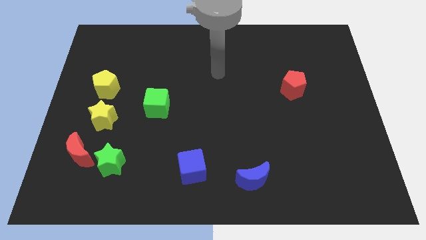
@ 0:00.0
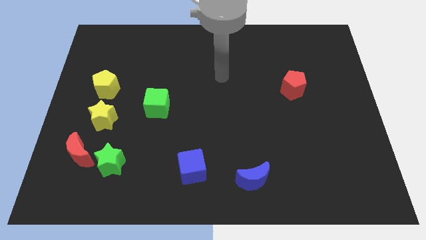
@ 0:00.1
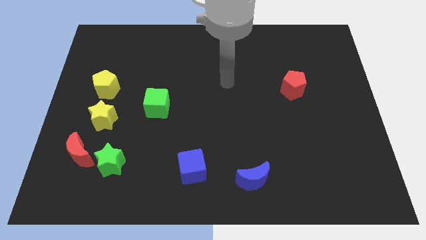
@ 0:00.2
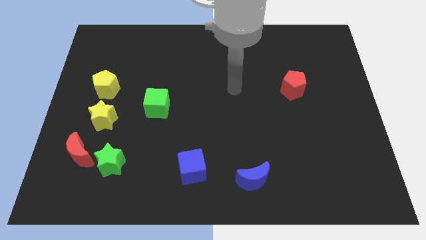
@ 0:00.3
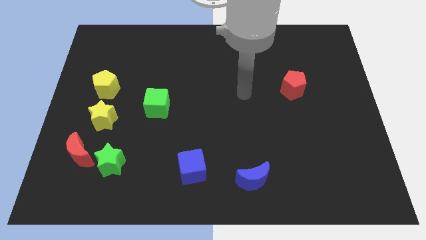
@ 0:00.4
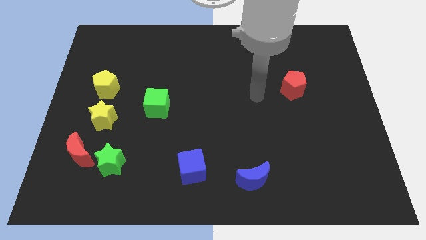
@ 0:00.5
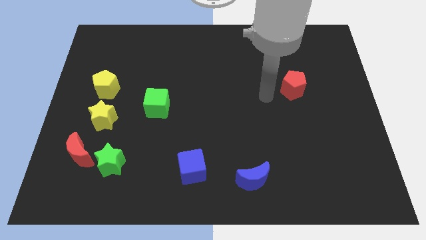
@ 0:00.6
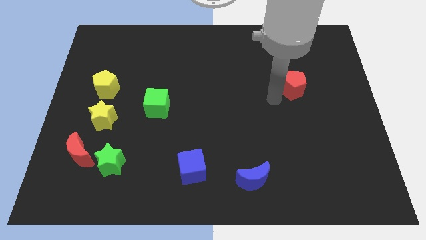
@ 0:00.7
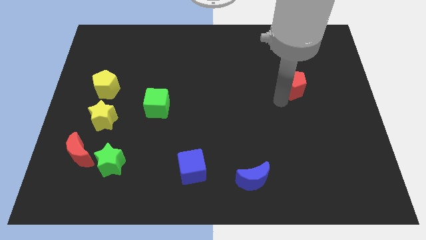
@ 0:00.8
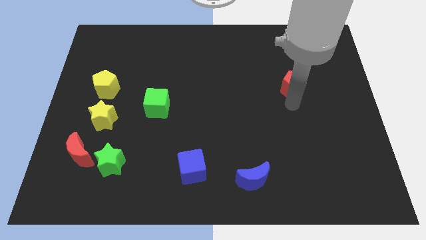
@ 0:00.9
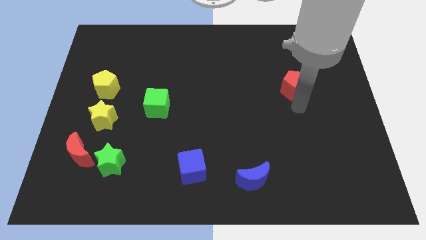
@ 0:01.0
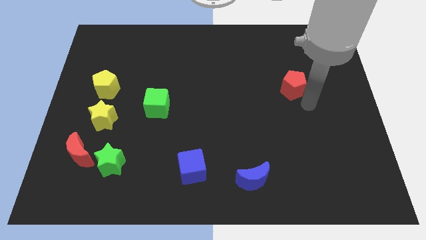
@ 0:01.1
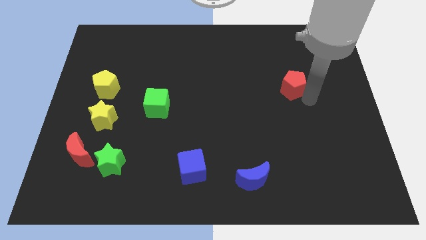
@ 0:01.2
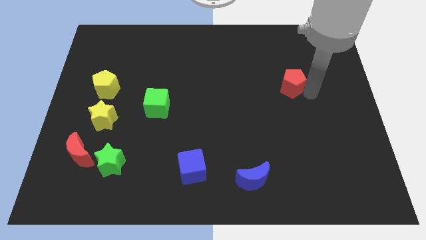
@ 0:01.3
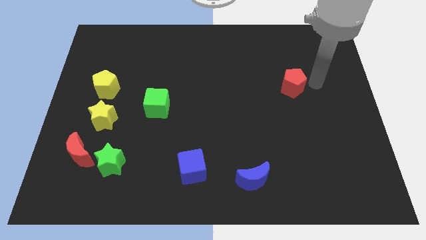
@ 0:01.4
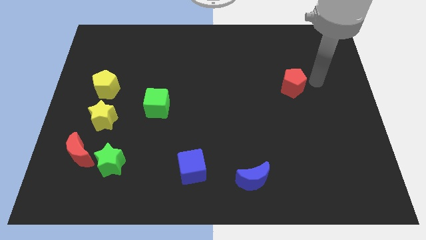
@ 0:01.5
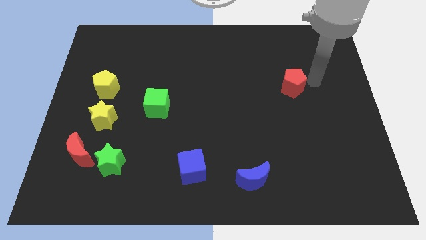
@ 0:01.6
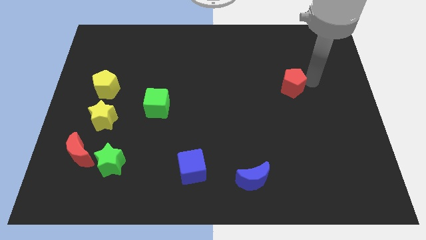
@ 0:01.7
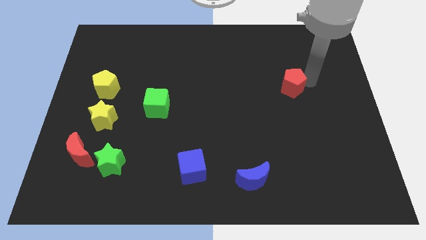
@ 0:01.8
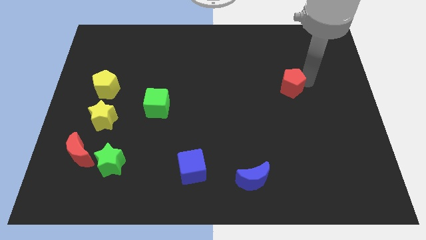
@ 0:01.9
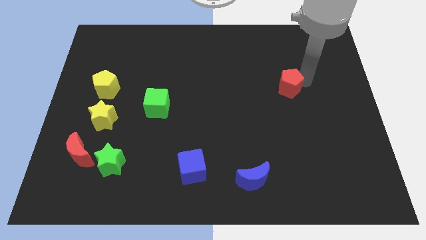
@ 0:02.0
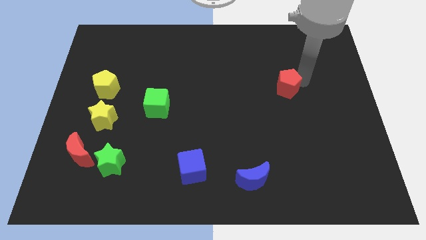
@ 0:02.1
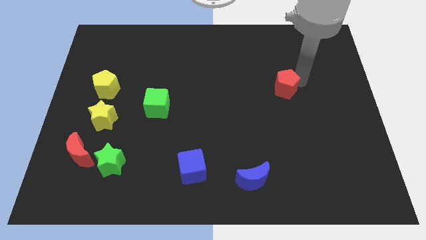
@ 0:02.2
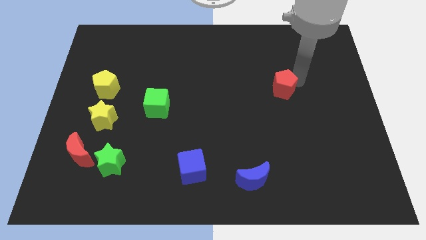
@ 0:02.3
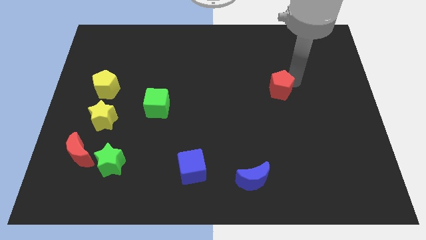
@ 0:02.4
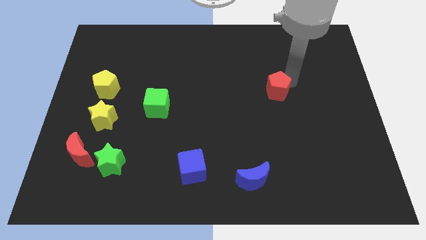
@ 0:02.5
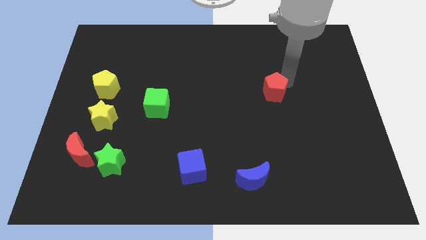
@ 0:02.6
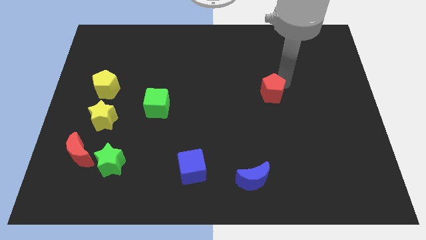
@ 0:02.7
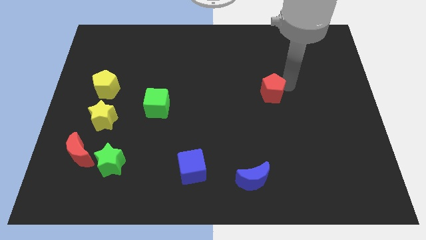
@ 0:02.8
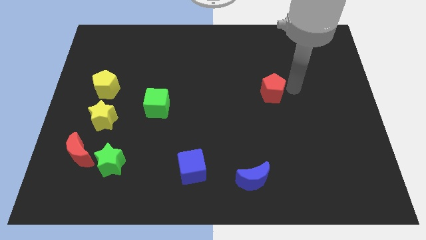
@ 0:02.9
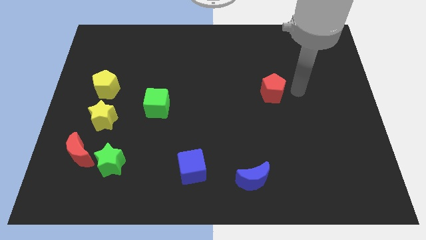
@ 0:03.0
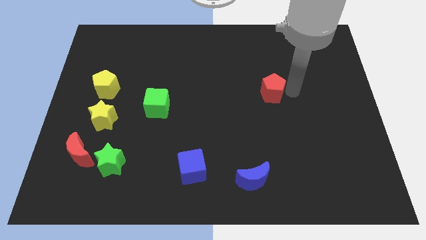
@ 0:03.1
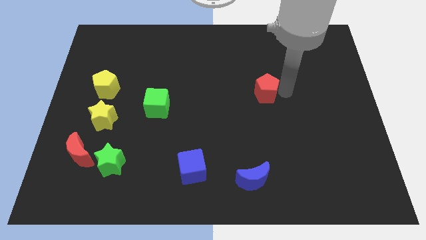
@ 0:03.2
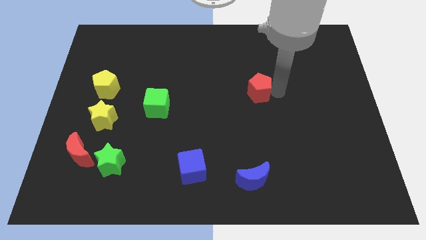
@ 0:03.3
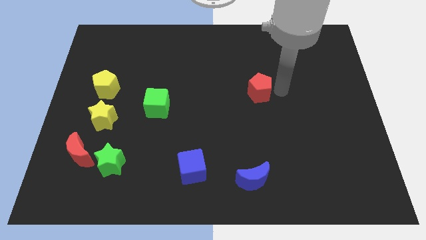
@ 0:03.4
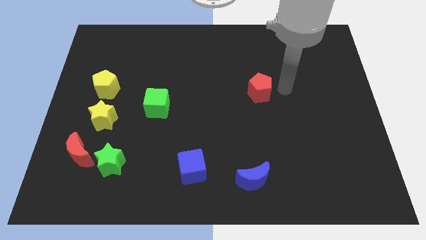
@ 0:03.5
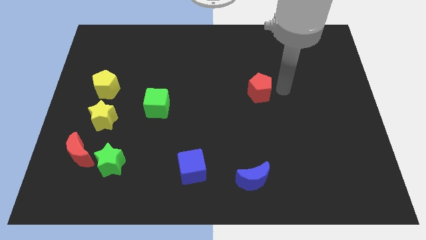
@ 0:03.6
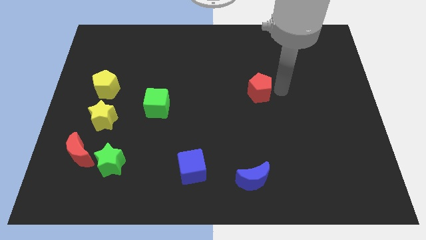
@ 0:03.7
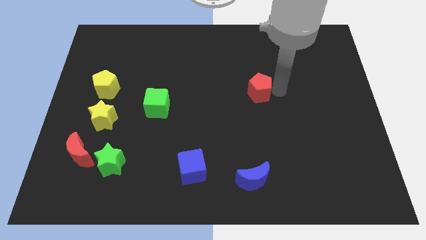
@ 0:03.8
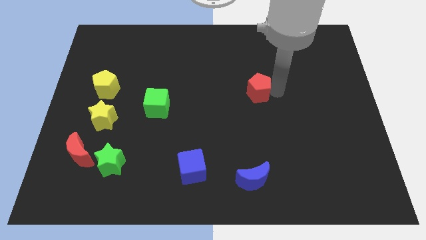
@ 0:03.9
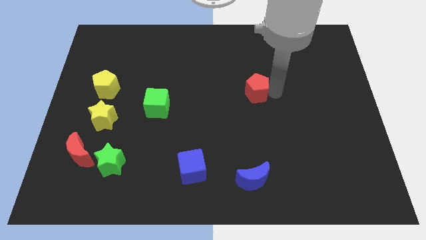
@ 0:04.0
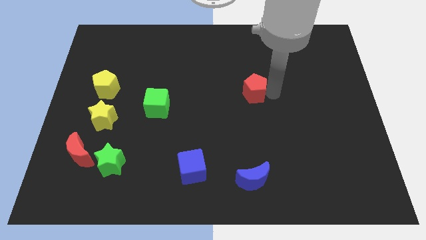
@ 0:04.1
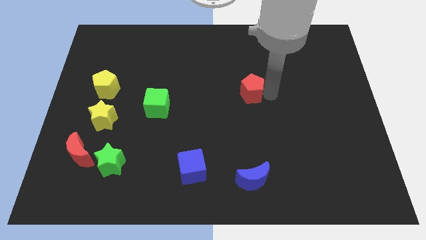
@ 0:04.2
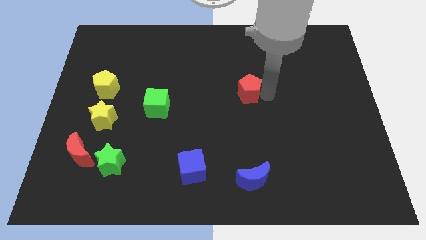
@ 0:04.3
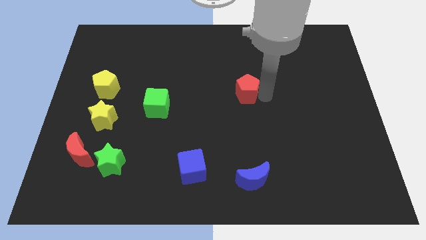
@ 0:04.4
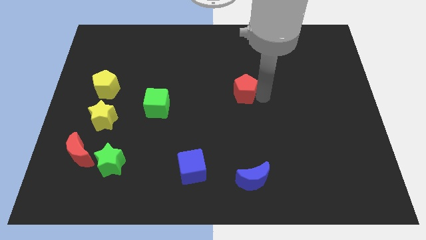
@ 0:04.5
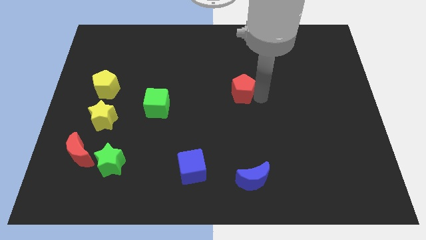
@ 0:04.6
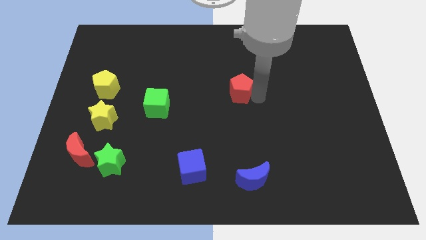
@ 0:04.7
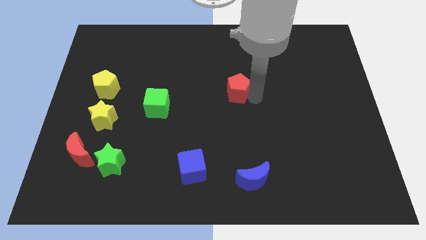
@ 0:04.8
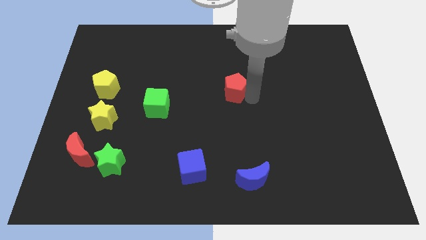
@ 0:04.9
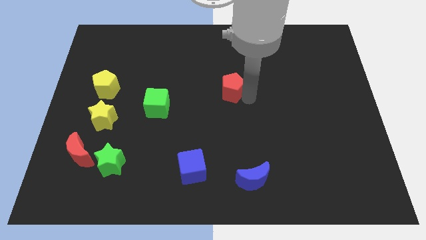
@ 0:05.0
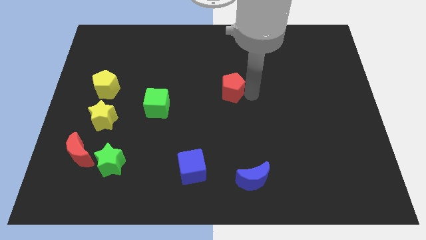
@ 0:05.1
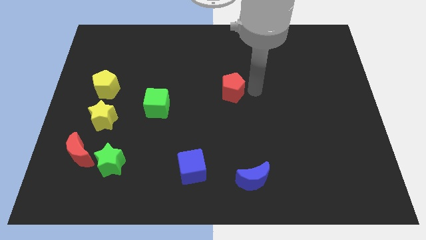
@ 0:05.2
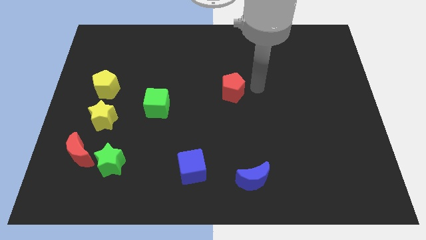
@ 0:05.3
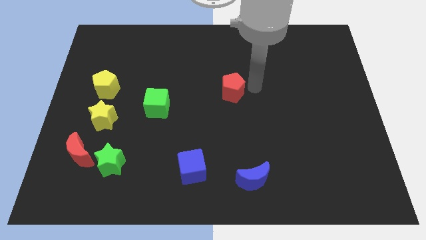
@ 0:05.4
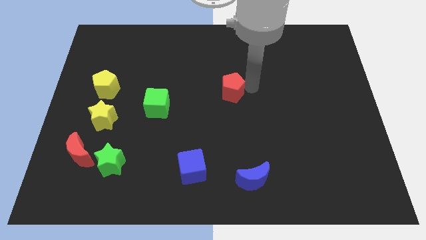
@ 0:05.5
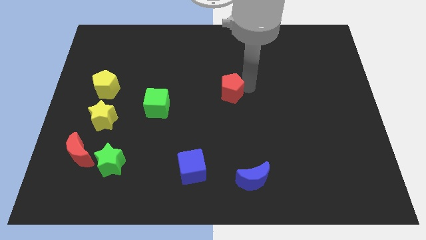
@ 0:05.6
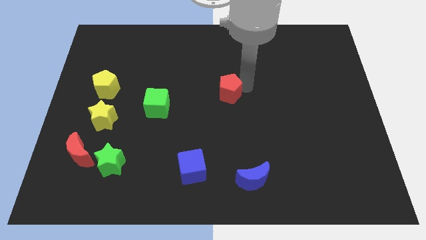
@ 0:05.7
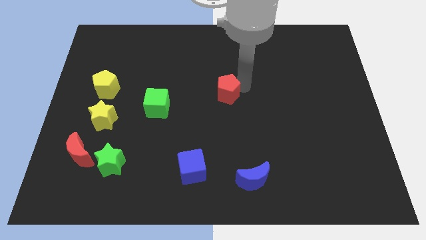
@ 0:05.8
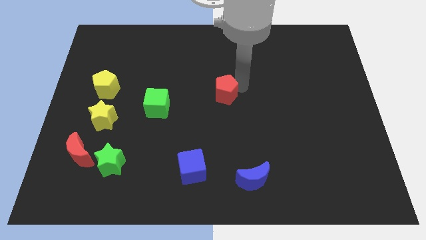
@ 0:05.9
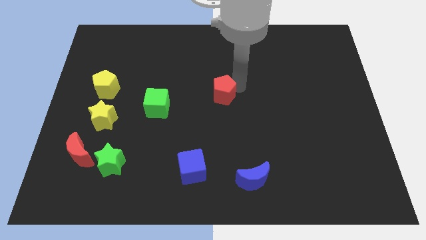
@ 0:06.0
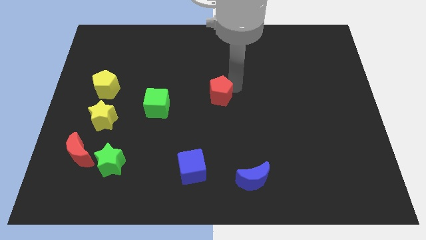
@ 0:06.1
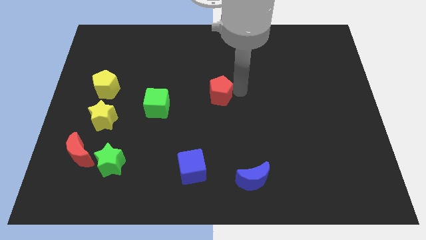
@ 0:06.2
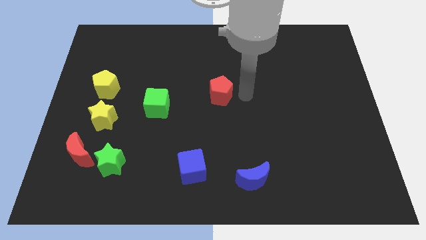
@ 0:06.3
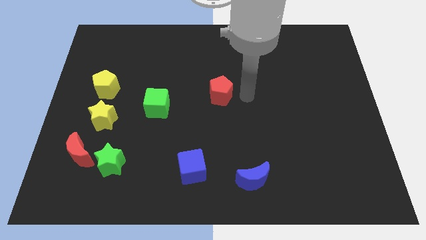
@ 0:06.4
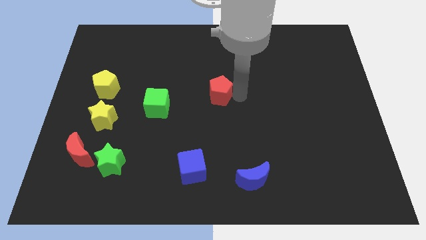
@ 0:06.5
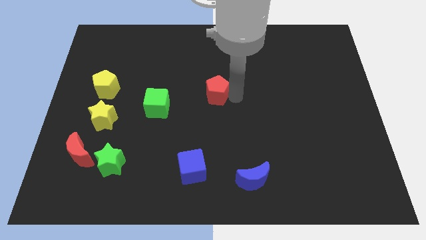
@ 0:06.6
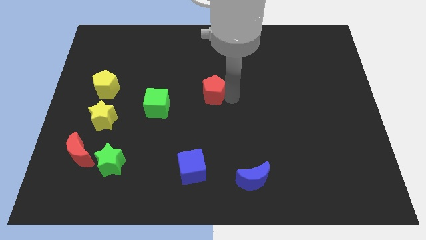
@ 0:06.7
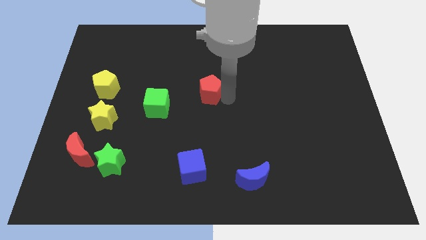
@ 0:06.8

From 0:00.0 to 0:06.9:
push the red pentagon to the left

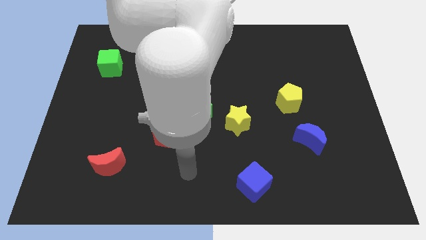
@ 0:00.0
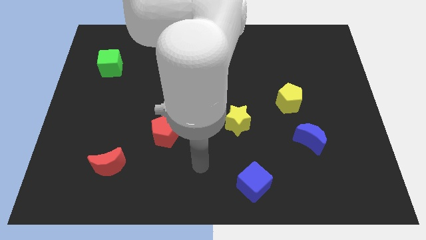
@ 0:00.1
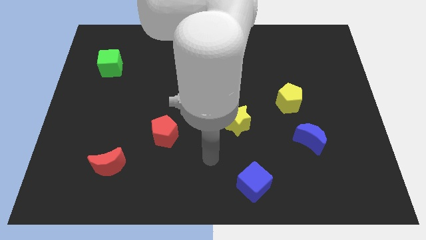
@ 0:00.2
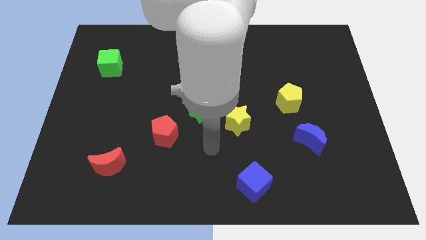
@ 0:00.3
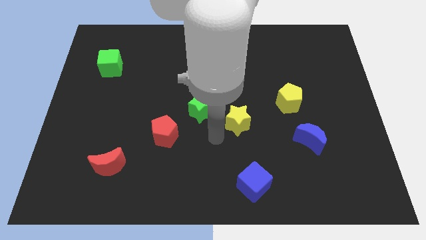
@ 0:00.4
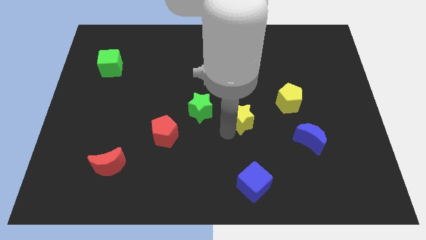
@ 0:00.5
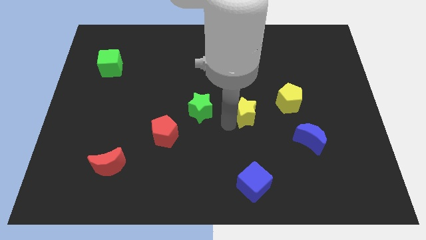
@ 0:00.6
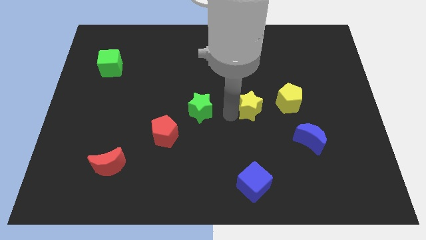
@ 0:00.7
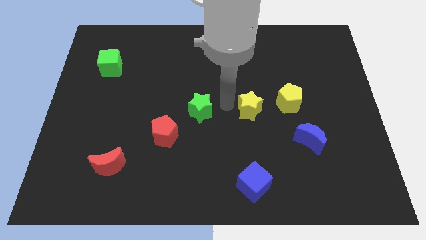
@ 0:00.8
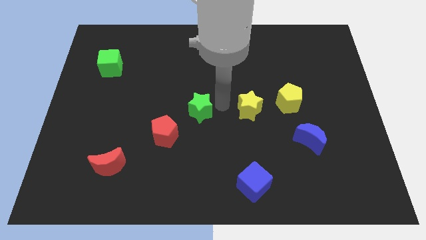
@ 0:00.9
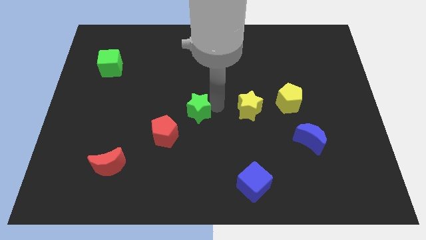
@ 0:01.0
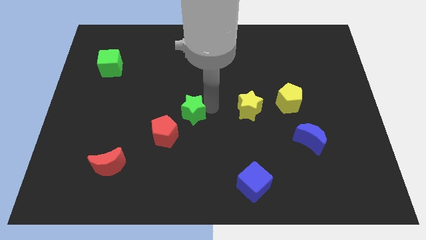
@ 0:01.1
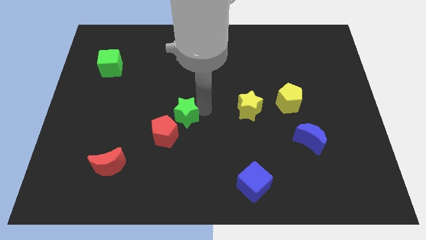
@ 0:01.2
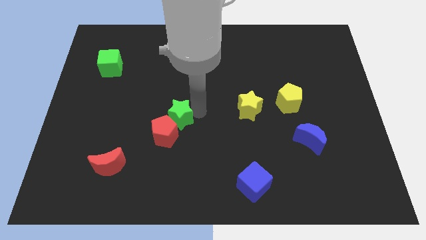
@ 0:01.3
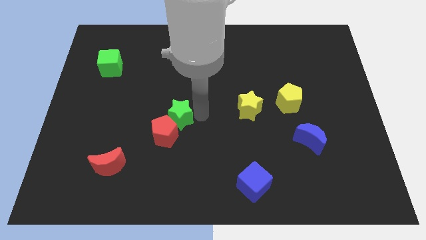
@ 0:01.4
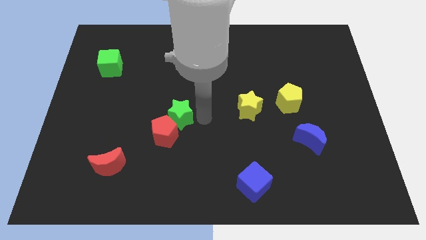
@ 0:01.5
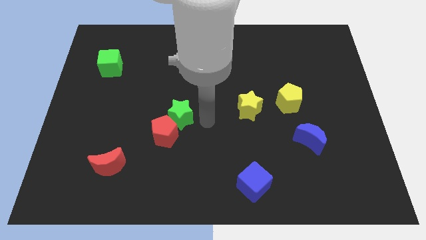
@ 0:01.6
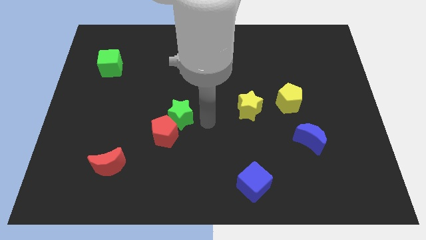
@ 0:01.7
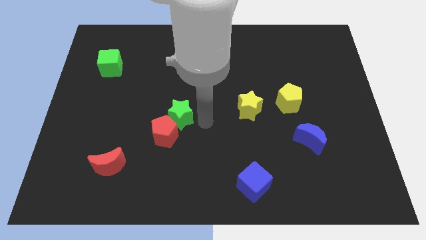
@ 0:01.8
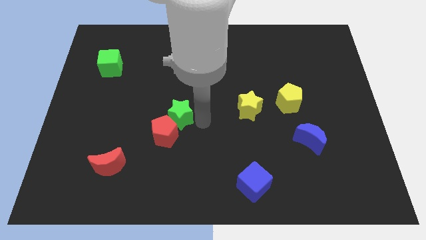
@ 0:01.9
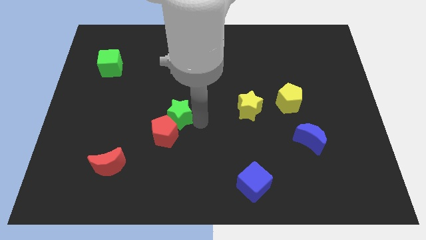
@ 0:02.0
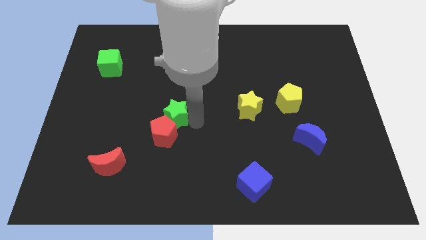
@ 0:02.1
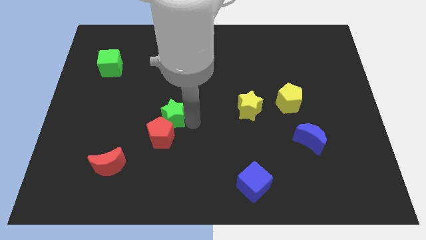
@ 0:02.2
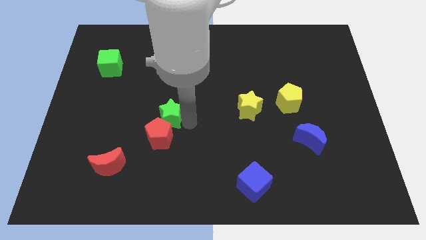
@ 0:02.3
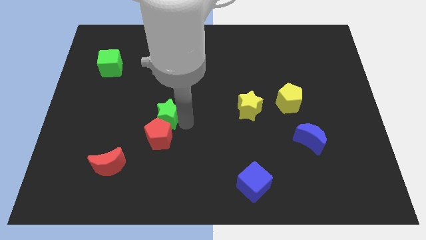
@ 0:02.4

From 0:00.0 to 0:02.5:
move the green star a bit to the left
